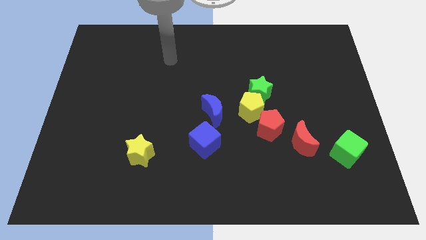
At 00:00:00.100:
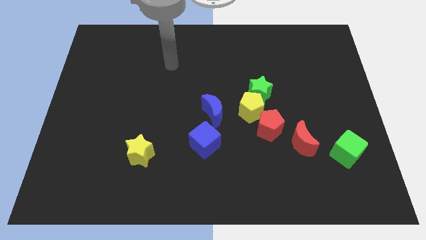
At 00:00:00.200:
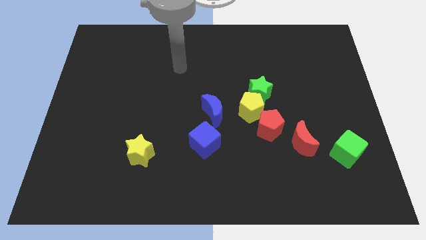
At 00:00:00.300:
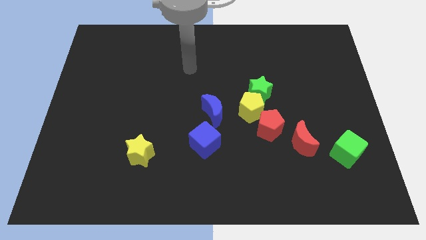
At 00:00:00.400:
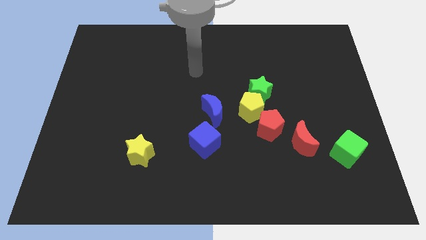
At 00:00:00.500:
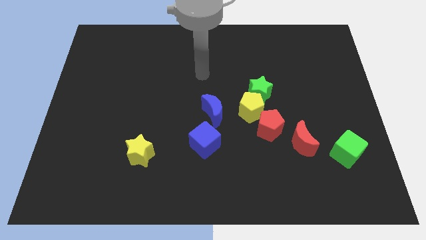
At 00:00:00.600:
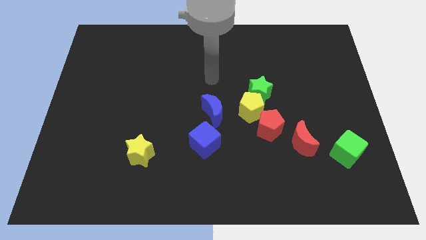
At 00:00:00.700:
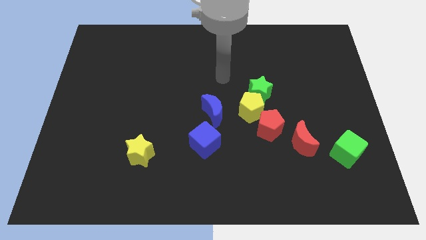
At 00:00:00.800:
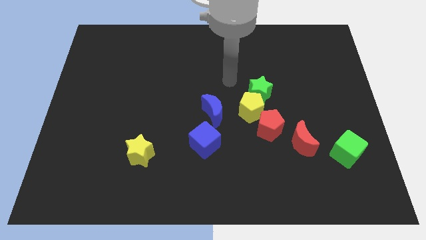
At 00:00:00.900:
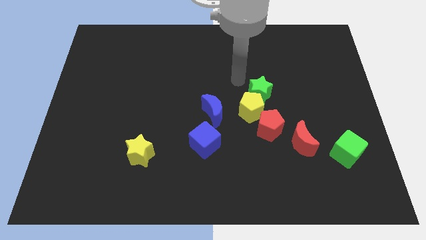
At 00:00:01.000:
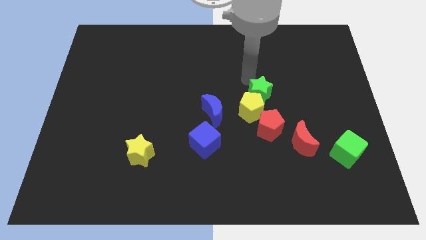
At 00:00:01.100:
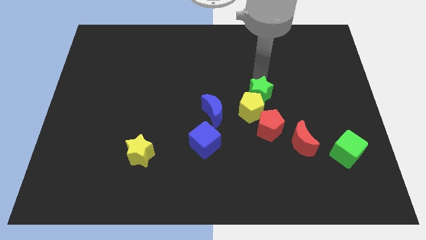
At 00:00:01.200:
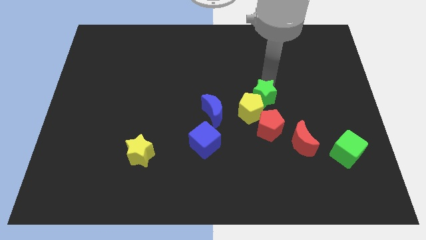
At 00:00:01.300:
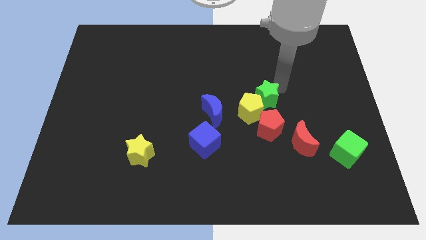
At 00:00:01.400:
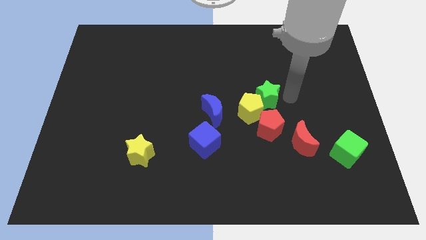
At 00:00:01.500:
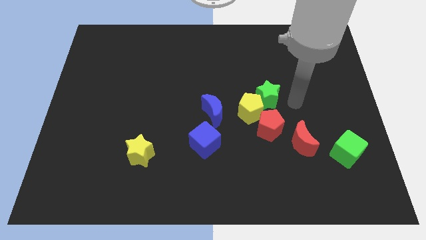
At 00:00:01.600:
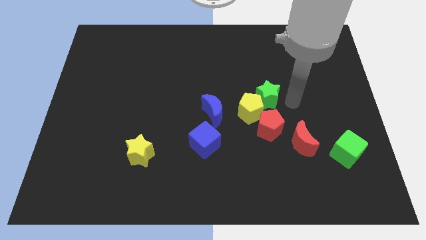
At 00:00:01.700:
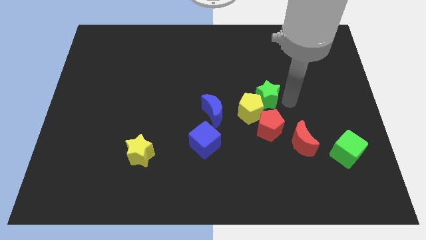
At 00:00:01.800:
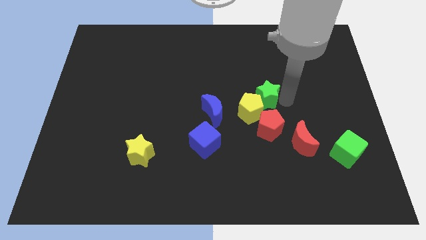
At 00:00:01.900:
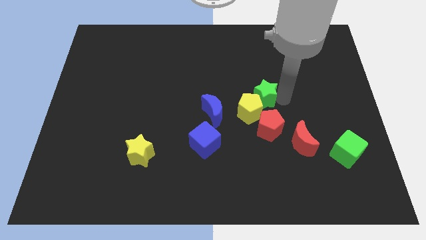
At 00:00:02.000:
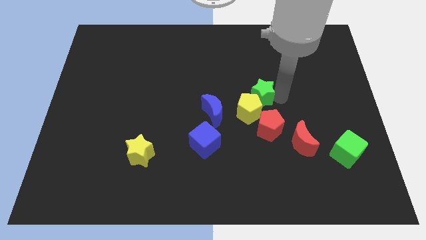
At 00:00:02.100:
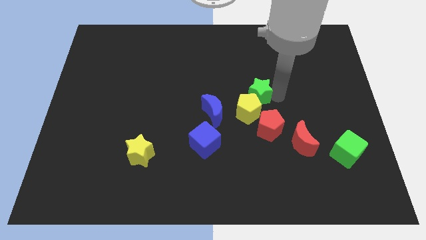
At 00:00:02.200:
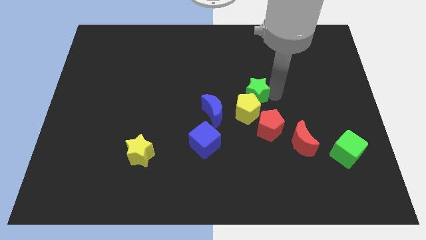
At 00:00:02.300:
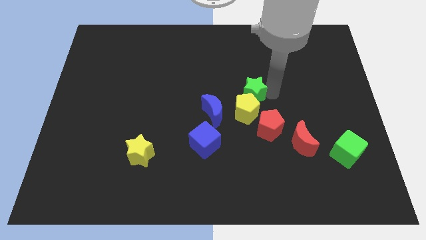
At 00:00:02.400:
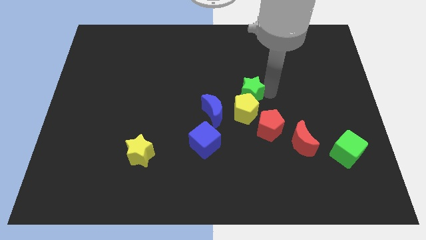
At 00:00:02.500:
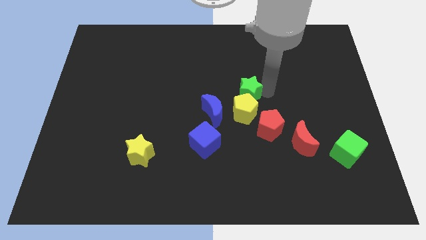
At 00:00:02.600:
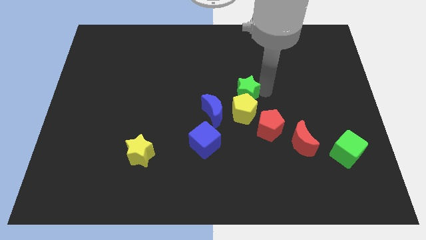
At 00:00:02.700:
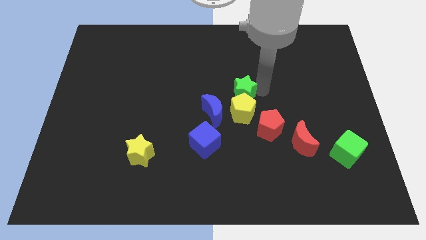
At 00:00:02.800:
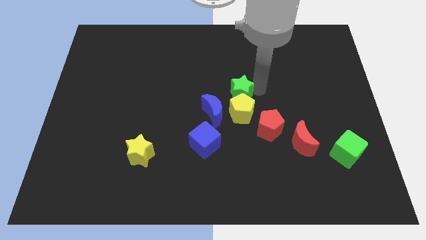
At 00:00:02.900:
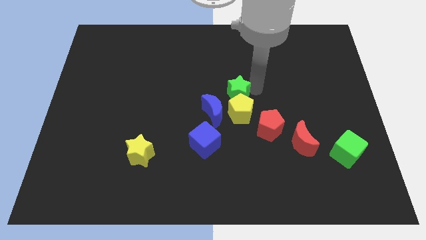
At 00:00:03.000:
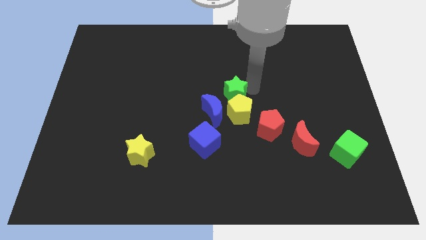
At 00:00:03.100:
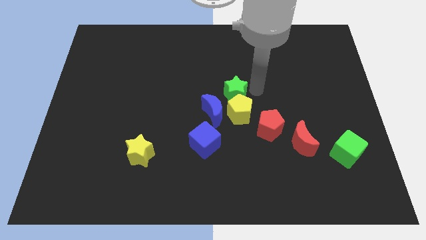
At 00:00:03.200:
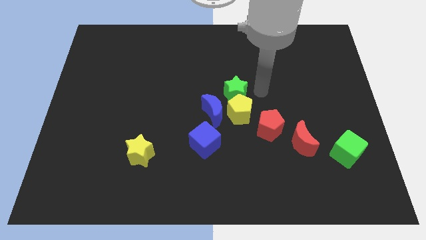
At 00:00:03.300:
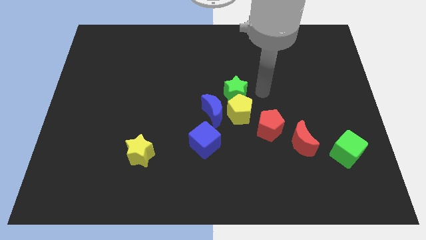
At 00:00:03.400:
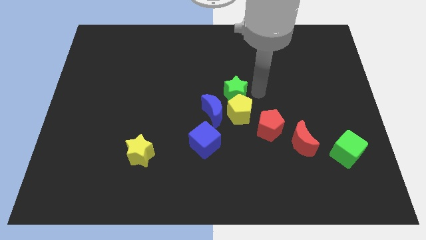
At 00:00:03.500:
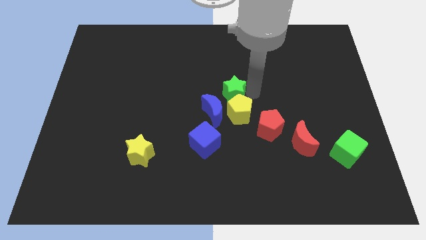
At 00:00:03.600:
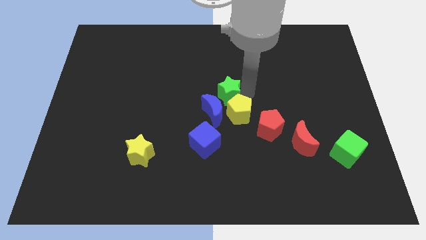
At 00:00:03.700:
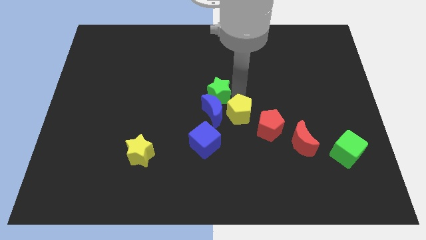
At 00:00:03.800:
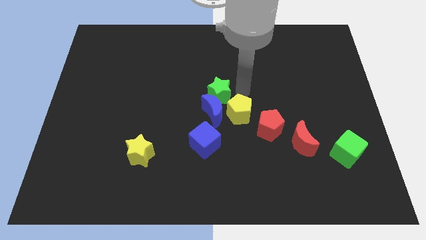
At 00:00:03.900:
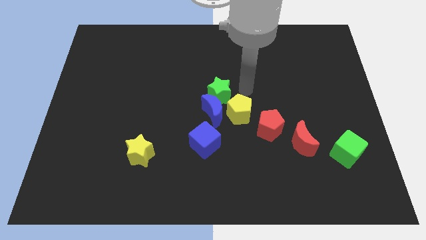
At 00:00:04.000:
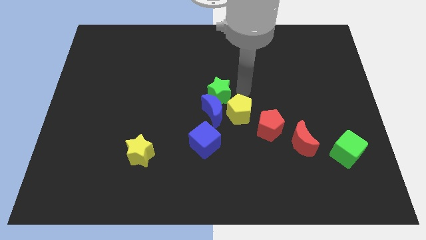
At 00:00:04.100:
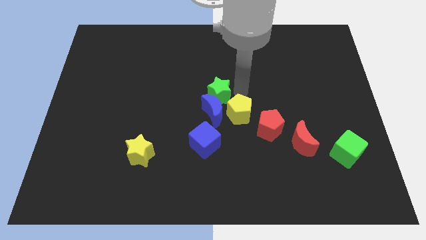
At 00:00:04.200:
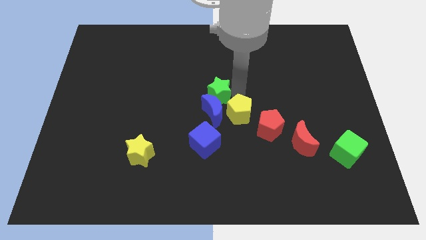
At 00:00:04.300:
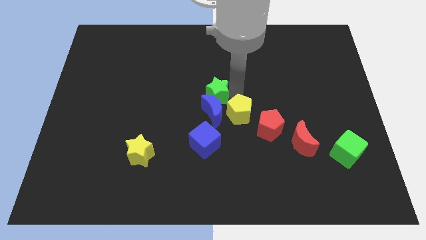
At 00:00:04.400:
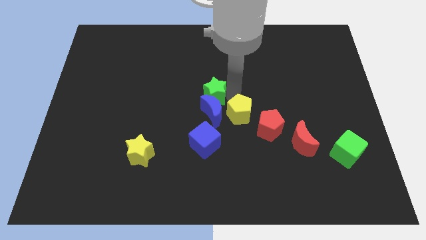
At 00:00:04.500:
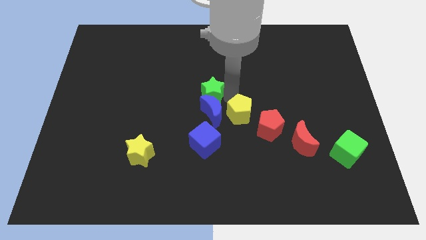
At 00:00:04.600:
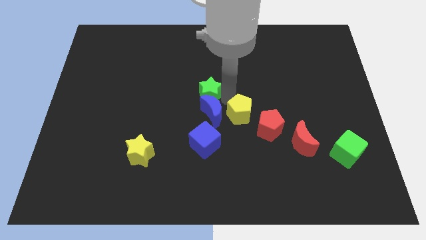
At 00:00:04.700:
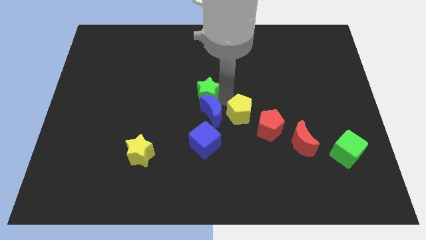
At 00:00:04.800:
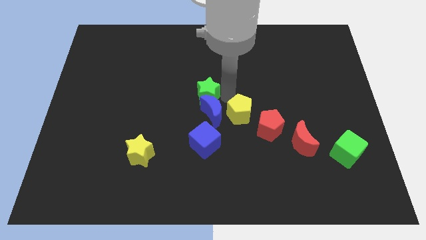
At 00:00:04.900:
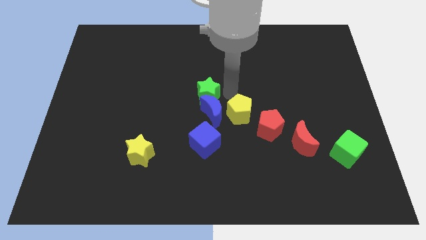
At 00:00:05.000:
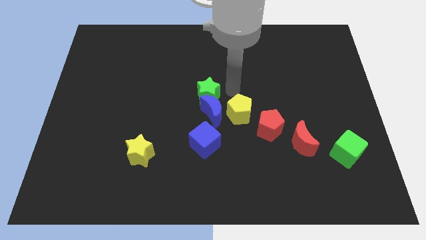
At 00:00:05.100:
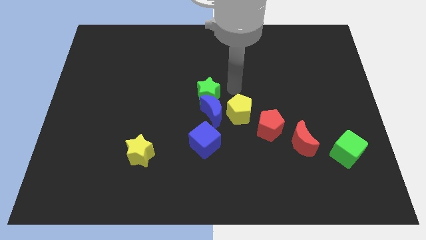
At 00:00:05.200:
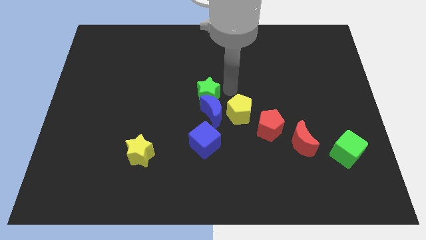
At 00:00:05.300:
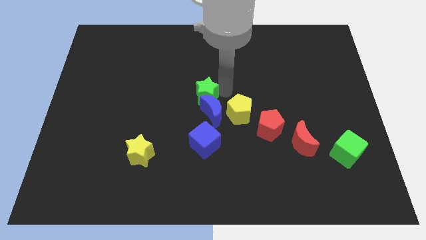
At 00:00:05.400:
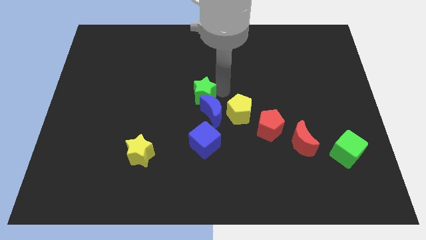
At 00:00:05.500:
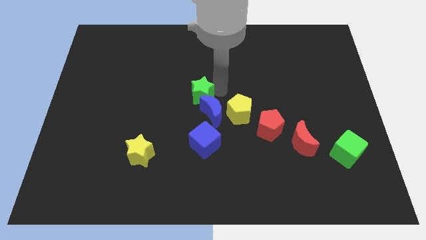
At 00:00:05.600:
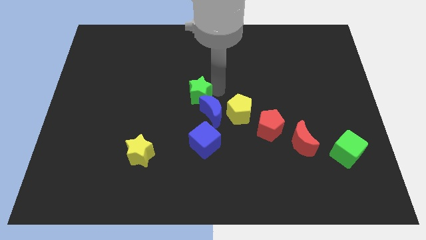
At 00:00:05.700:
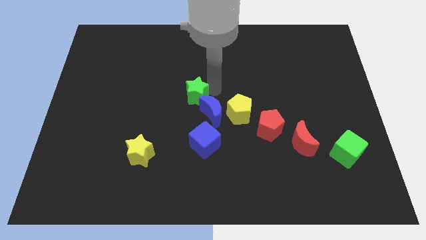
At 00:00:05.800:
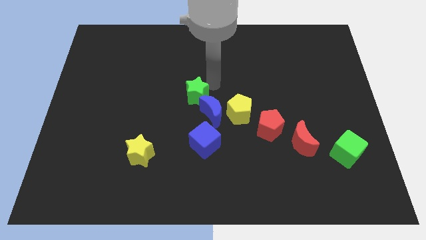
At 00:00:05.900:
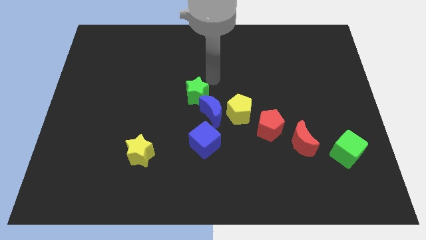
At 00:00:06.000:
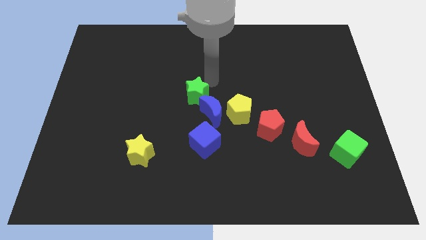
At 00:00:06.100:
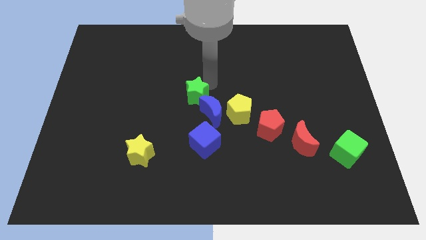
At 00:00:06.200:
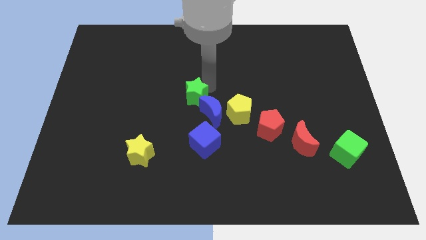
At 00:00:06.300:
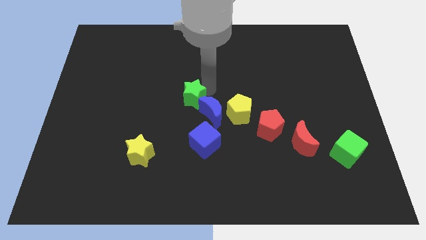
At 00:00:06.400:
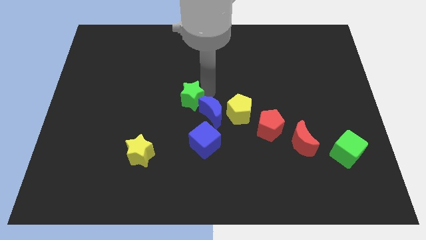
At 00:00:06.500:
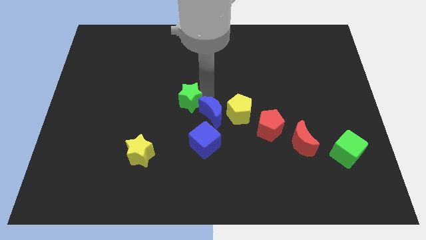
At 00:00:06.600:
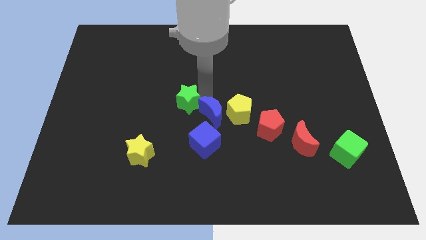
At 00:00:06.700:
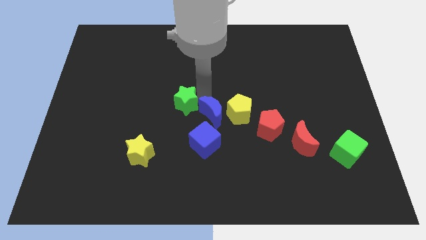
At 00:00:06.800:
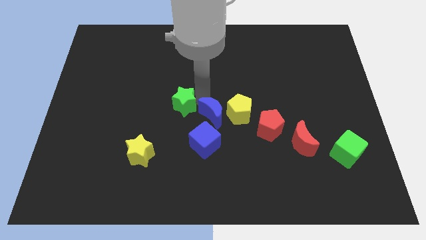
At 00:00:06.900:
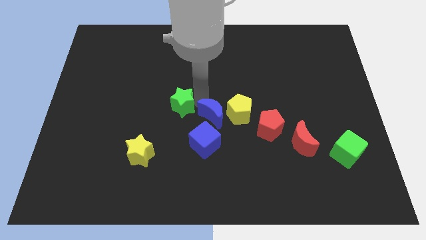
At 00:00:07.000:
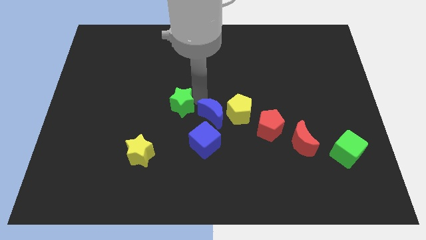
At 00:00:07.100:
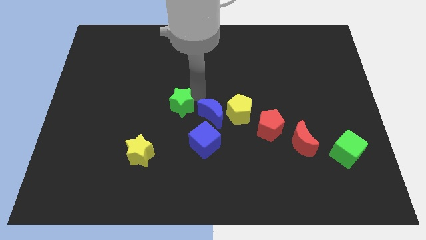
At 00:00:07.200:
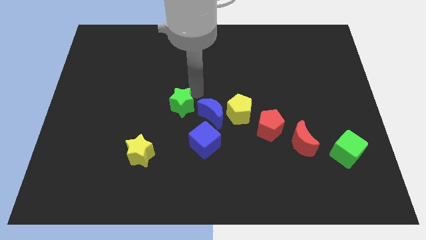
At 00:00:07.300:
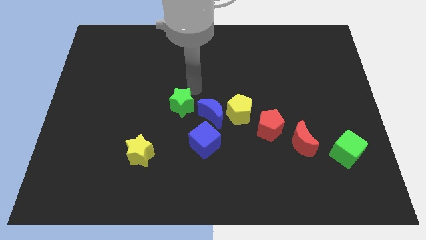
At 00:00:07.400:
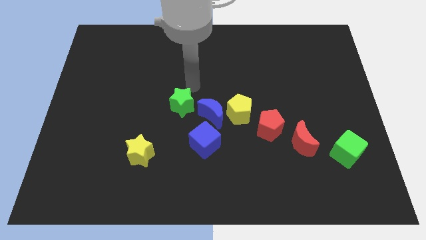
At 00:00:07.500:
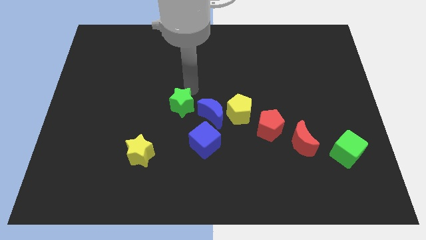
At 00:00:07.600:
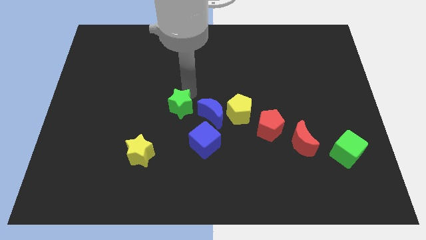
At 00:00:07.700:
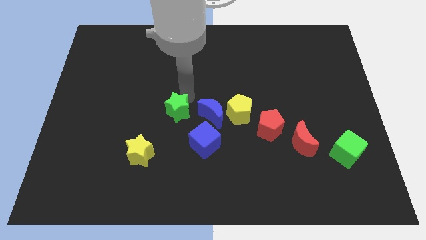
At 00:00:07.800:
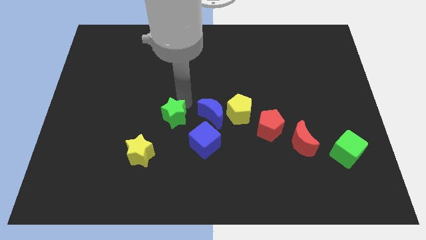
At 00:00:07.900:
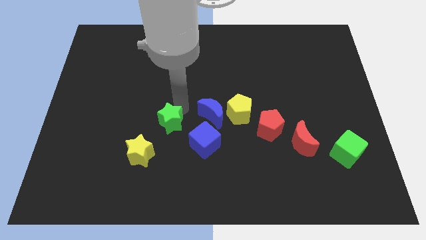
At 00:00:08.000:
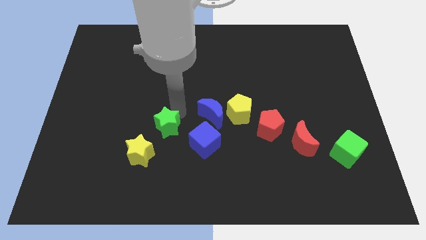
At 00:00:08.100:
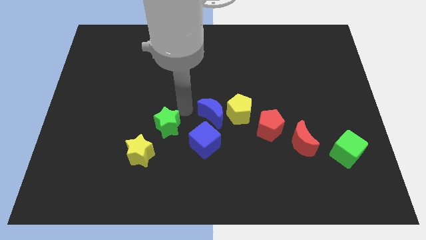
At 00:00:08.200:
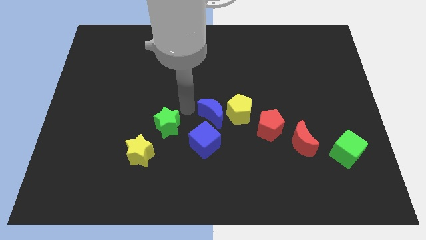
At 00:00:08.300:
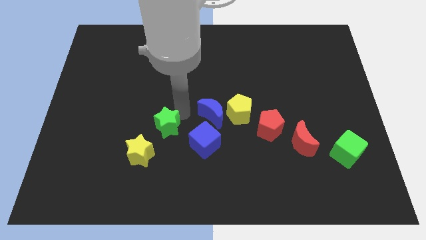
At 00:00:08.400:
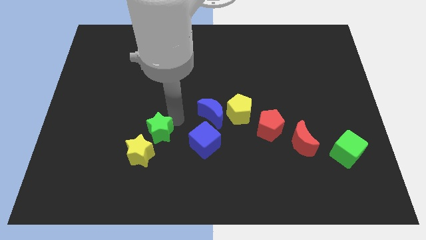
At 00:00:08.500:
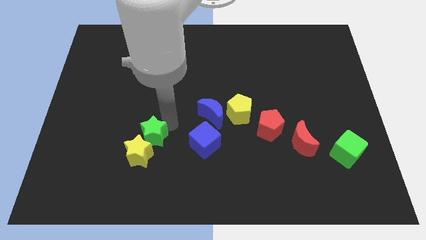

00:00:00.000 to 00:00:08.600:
push the green star close to the yellow star
